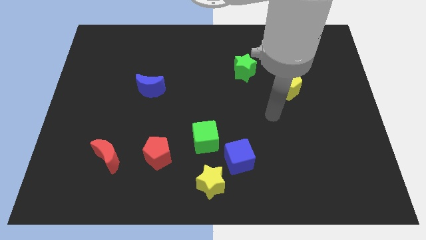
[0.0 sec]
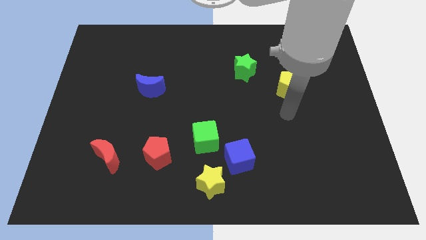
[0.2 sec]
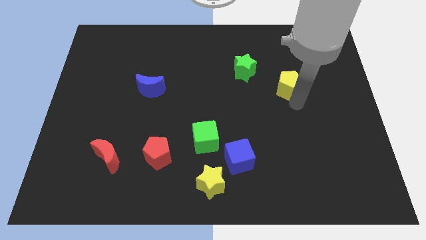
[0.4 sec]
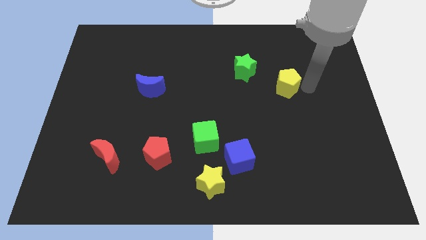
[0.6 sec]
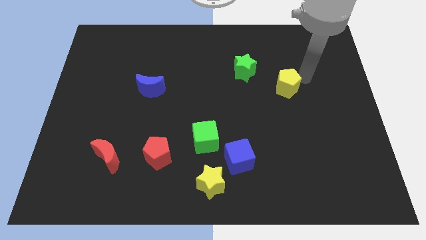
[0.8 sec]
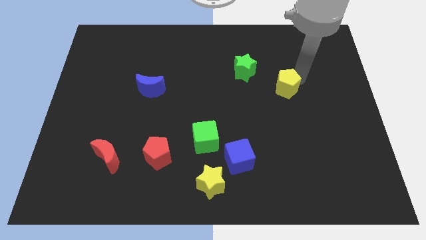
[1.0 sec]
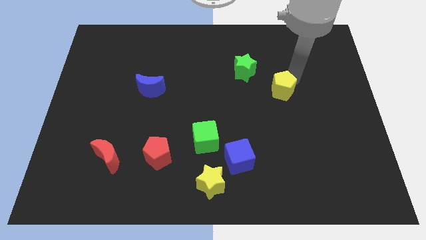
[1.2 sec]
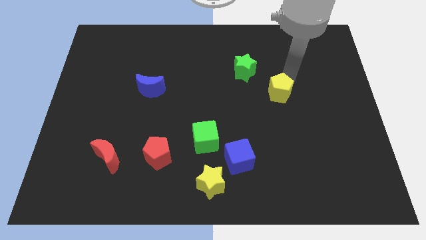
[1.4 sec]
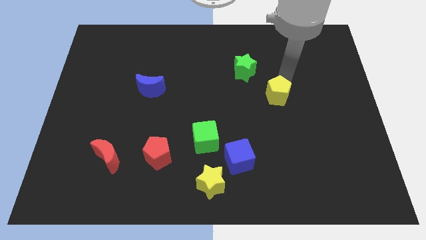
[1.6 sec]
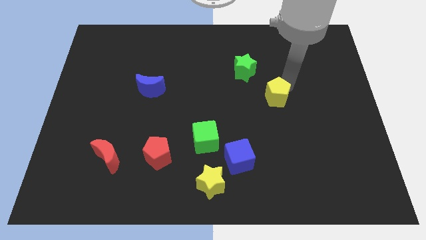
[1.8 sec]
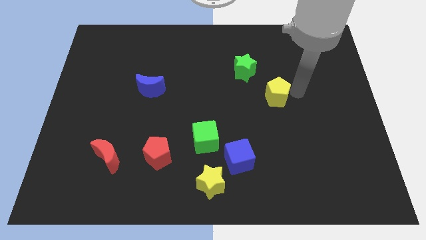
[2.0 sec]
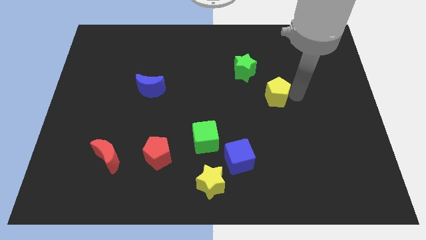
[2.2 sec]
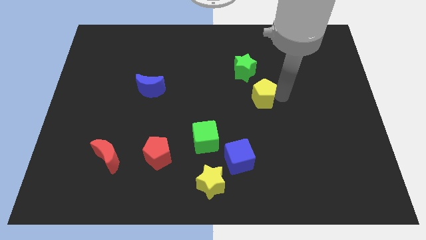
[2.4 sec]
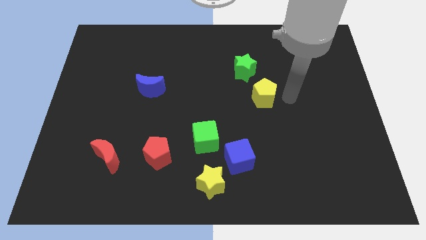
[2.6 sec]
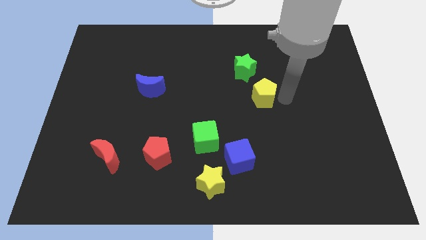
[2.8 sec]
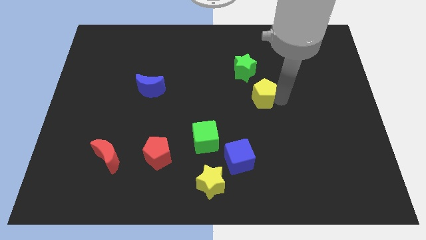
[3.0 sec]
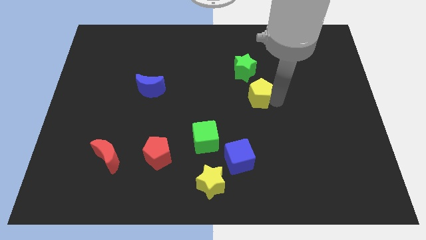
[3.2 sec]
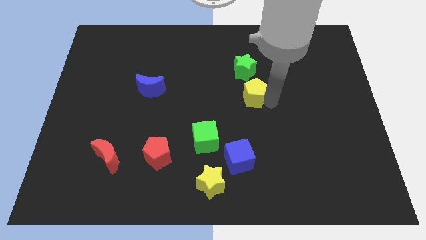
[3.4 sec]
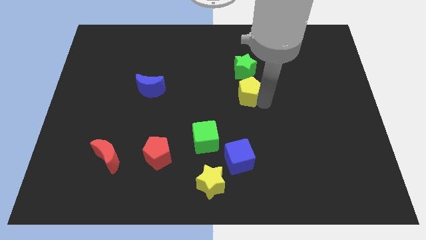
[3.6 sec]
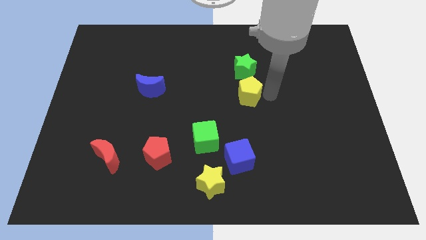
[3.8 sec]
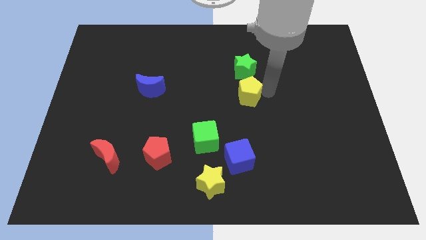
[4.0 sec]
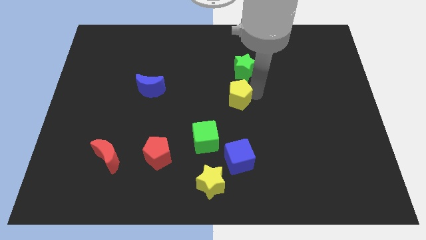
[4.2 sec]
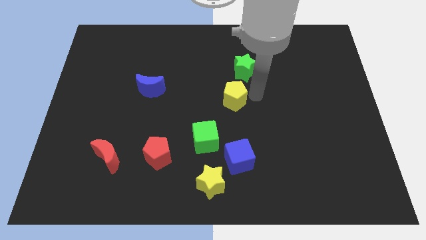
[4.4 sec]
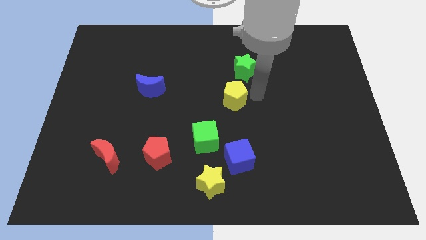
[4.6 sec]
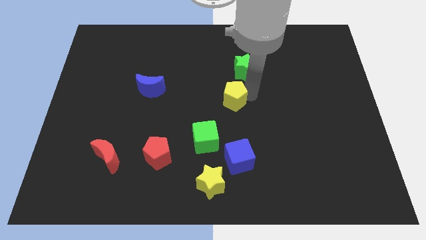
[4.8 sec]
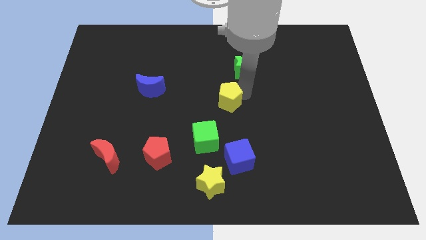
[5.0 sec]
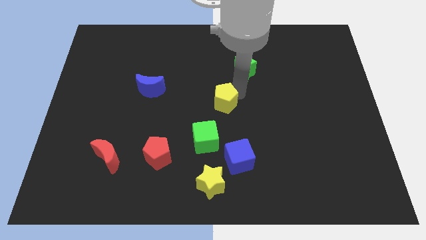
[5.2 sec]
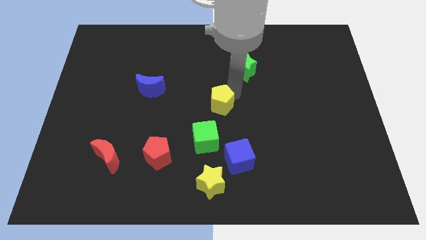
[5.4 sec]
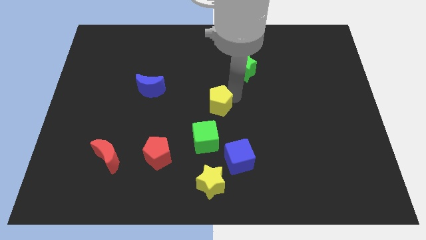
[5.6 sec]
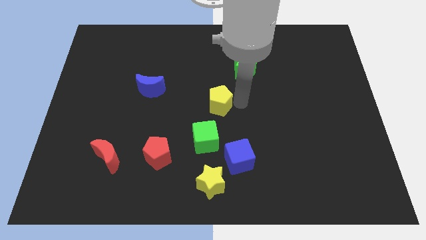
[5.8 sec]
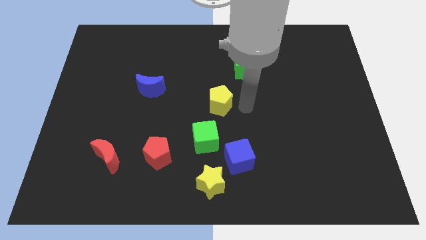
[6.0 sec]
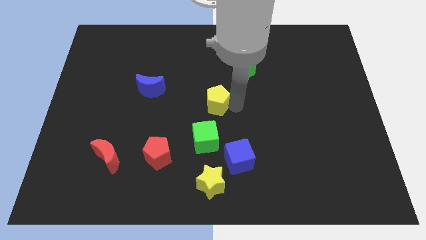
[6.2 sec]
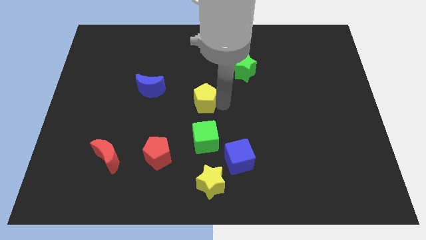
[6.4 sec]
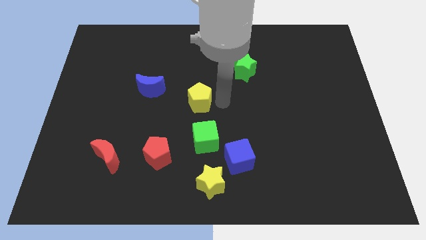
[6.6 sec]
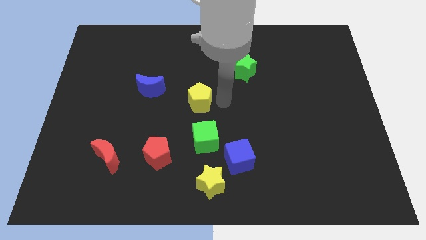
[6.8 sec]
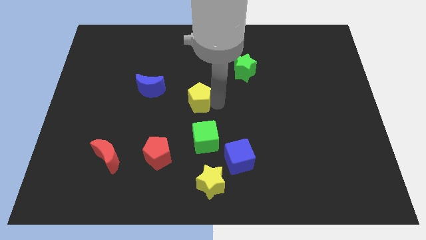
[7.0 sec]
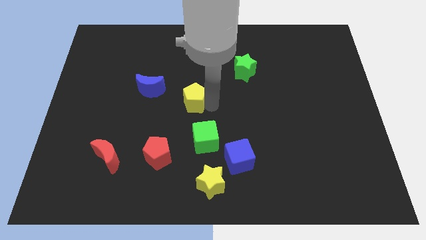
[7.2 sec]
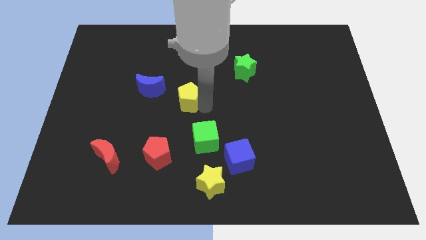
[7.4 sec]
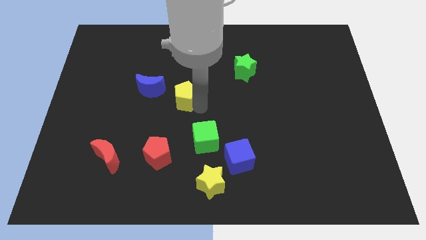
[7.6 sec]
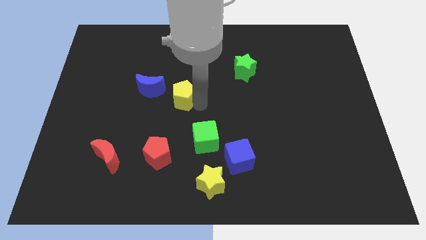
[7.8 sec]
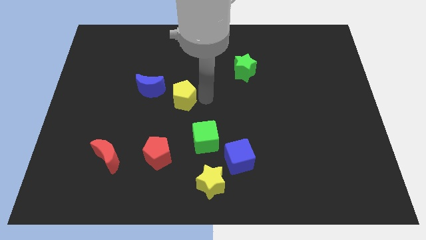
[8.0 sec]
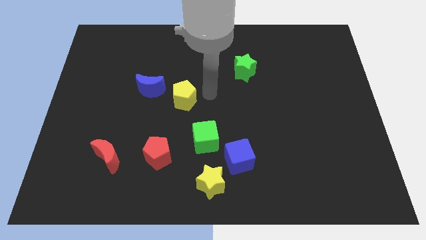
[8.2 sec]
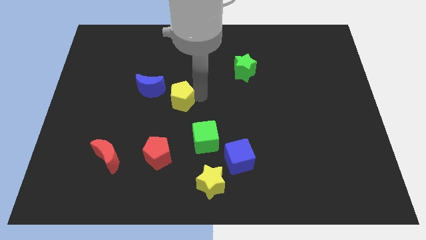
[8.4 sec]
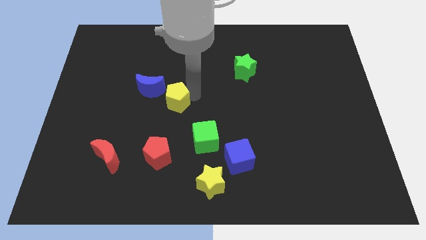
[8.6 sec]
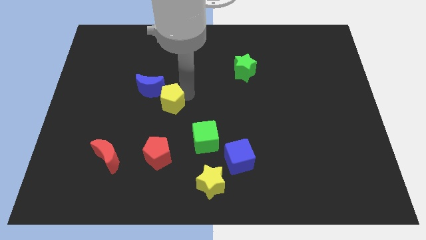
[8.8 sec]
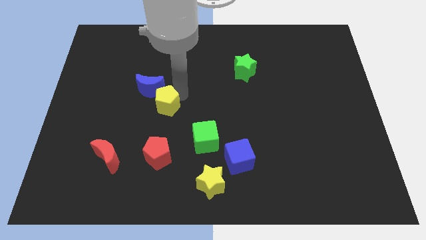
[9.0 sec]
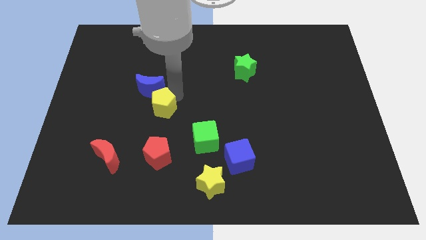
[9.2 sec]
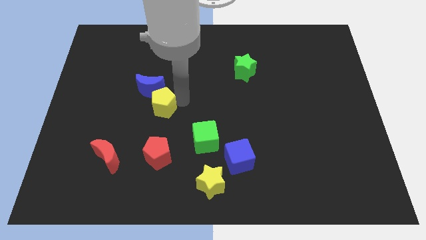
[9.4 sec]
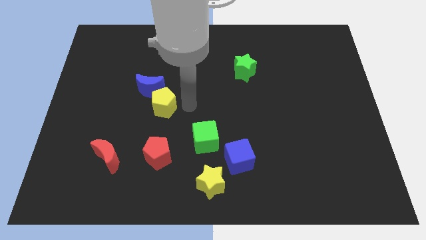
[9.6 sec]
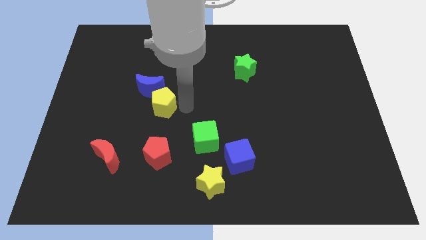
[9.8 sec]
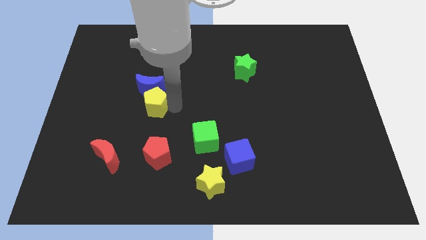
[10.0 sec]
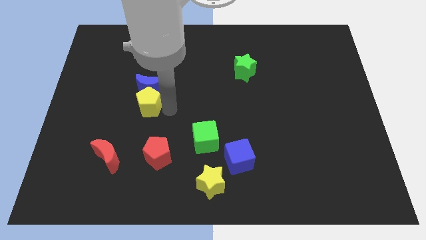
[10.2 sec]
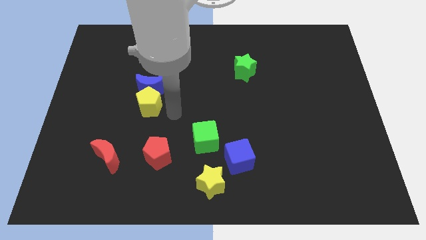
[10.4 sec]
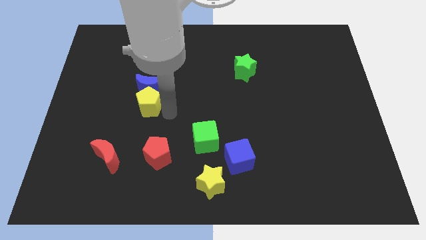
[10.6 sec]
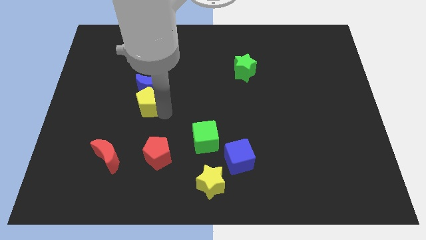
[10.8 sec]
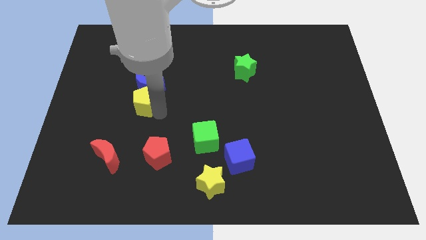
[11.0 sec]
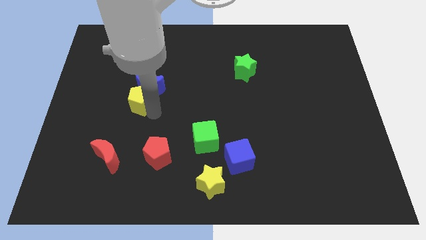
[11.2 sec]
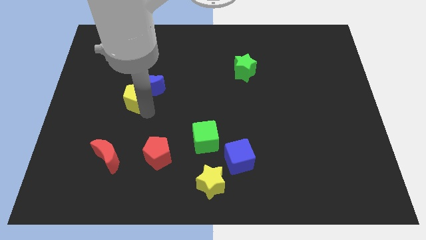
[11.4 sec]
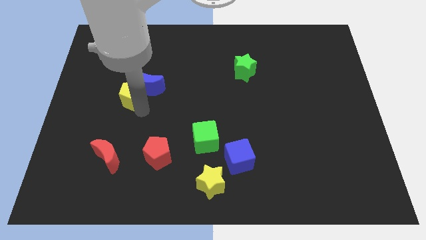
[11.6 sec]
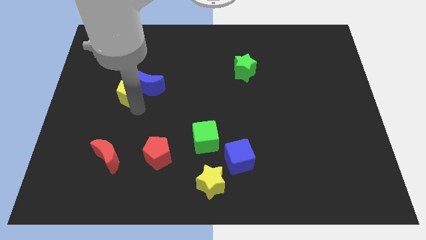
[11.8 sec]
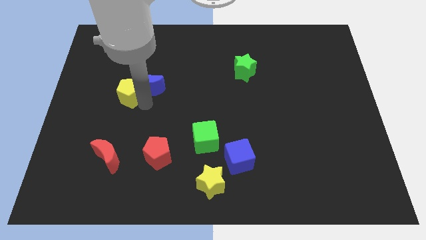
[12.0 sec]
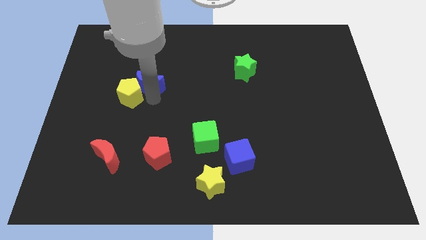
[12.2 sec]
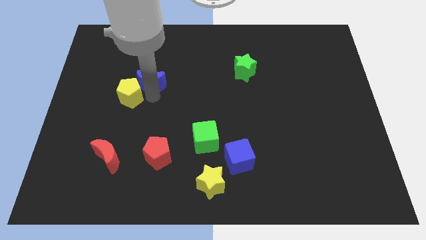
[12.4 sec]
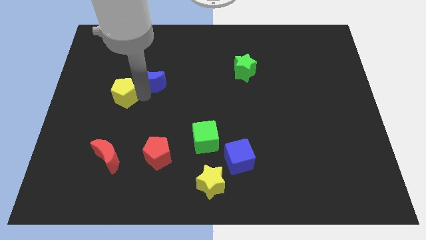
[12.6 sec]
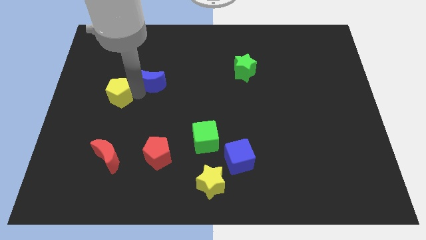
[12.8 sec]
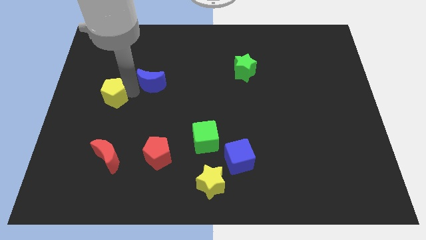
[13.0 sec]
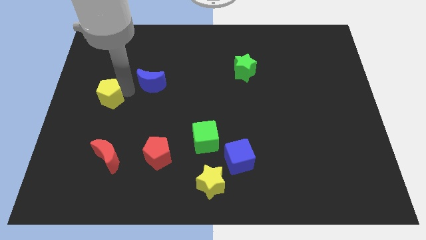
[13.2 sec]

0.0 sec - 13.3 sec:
put the yellow pentagon to the left side

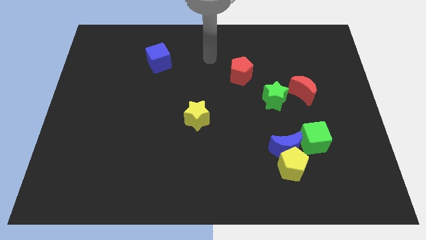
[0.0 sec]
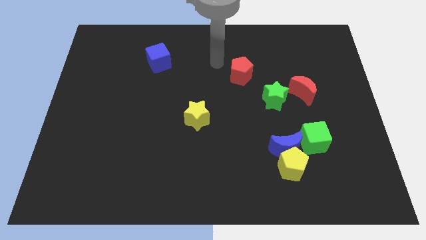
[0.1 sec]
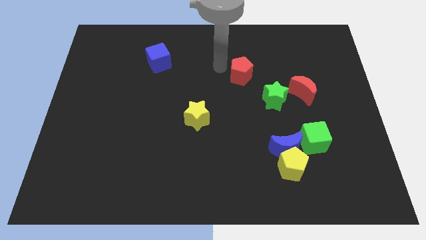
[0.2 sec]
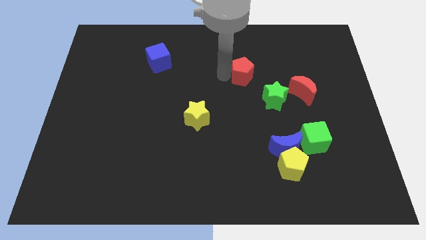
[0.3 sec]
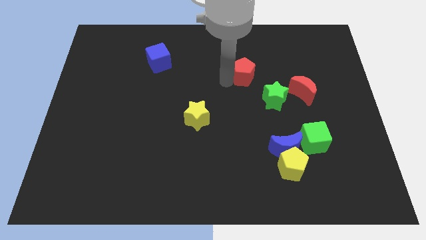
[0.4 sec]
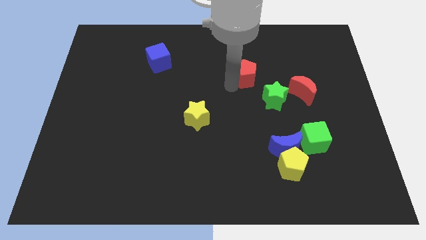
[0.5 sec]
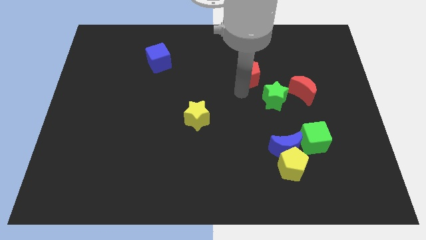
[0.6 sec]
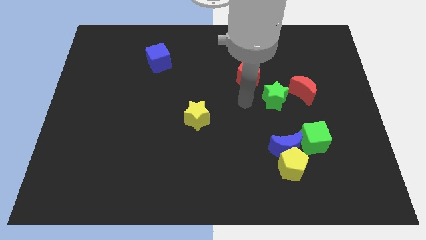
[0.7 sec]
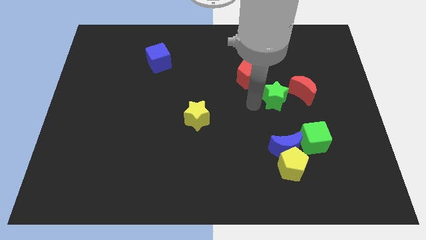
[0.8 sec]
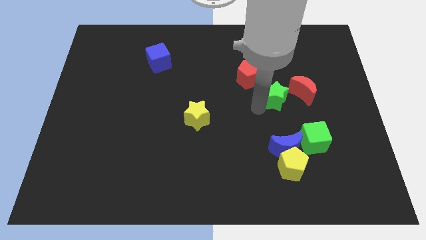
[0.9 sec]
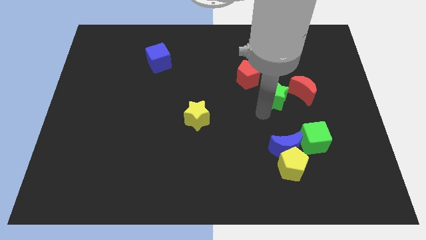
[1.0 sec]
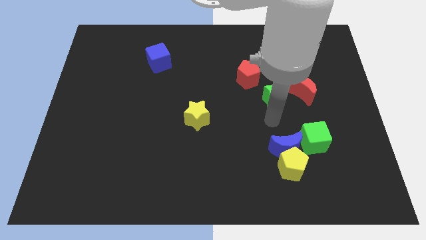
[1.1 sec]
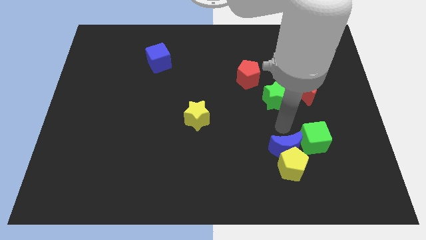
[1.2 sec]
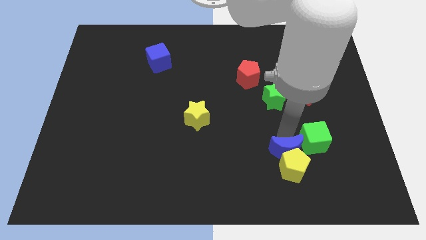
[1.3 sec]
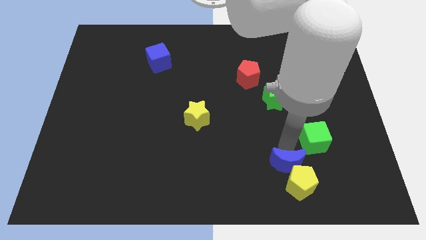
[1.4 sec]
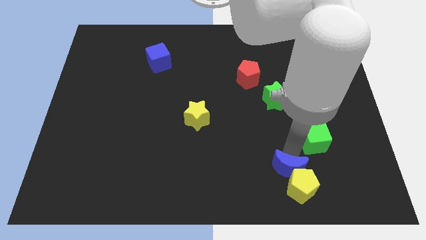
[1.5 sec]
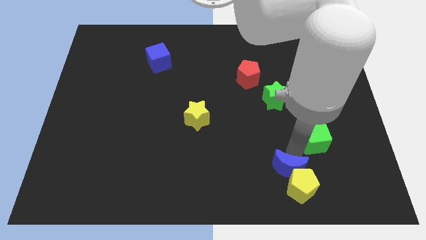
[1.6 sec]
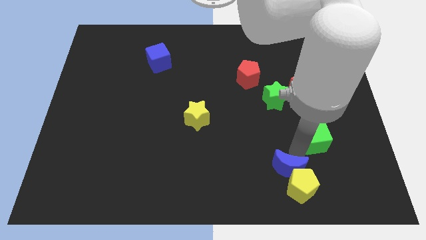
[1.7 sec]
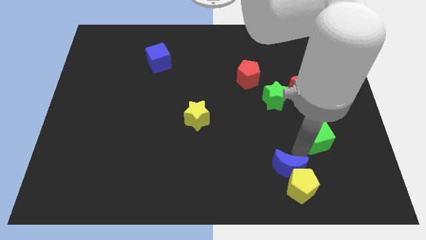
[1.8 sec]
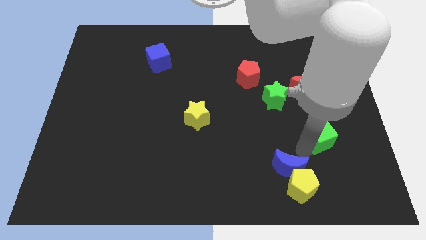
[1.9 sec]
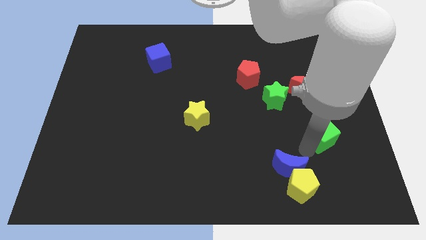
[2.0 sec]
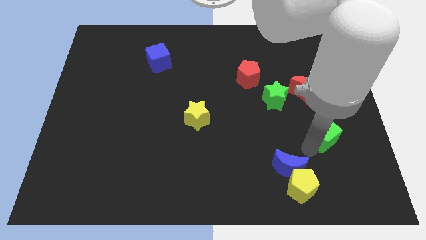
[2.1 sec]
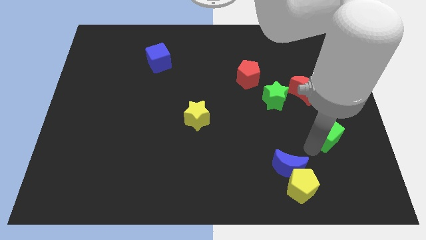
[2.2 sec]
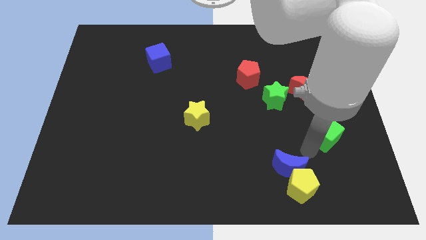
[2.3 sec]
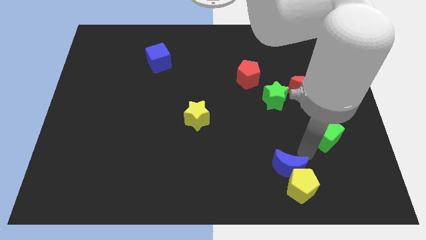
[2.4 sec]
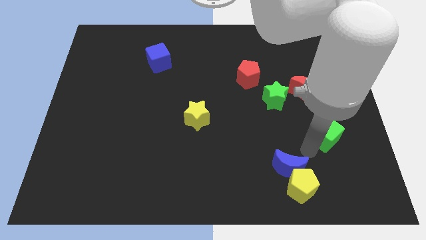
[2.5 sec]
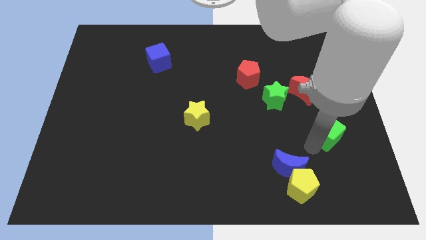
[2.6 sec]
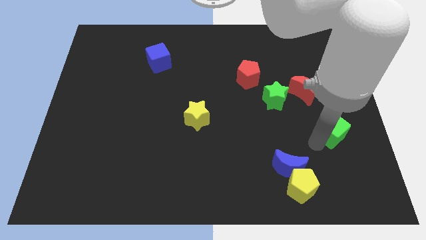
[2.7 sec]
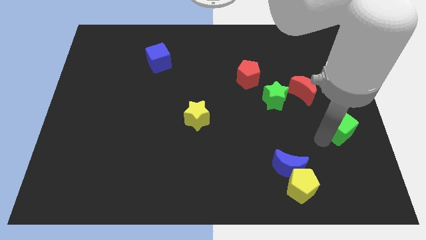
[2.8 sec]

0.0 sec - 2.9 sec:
move the green cube to the center right
